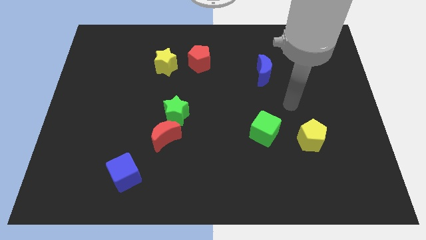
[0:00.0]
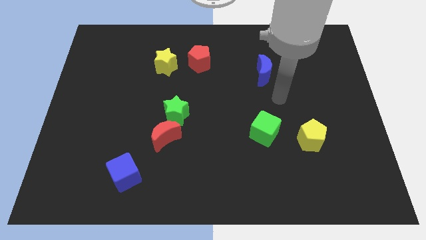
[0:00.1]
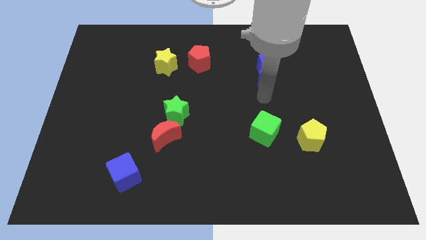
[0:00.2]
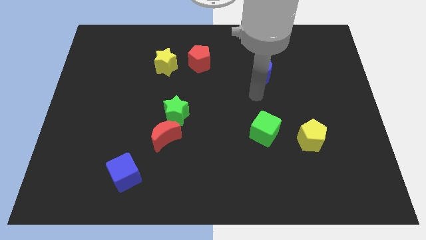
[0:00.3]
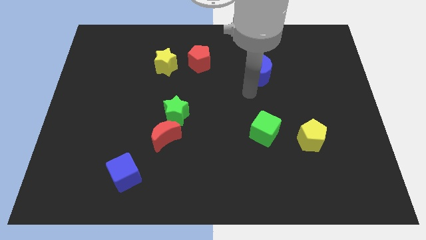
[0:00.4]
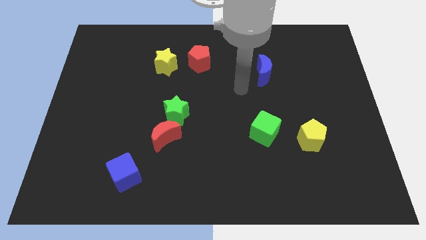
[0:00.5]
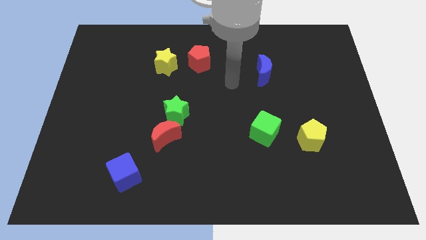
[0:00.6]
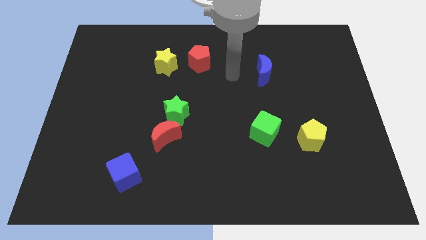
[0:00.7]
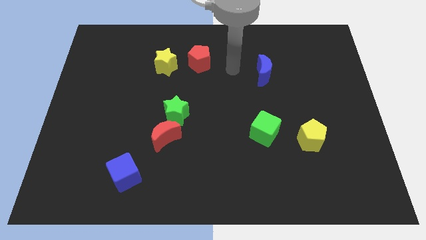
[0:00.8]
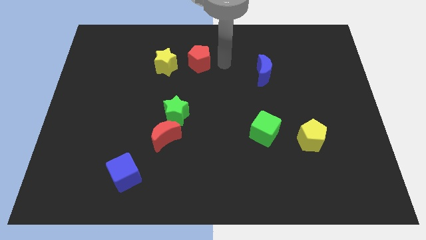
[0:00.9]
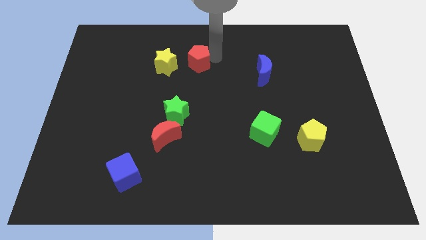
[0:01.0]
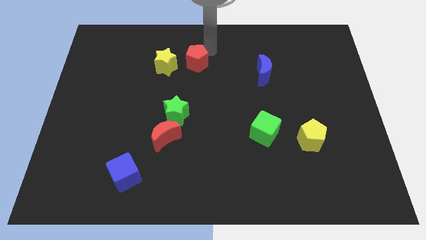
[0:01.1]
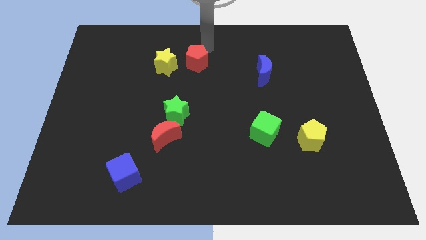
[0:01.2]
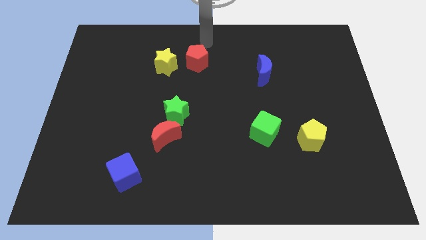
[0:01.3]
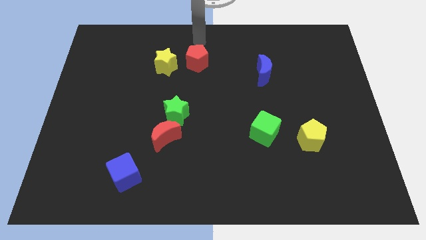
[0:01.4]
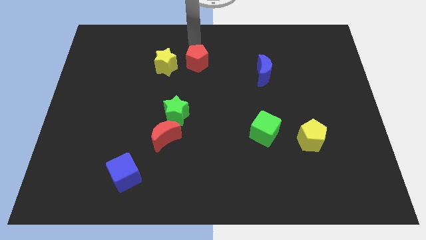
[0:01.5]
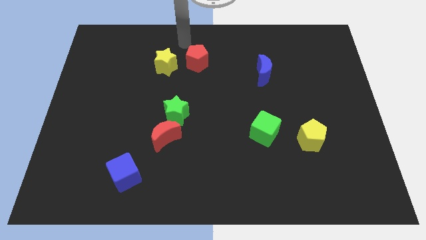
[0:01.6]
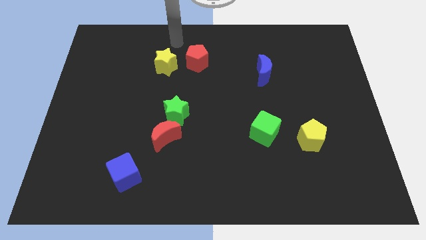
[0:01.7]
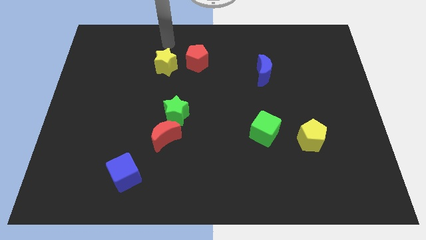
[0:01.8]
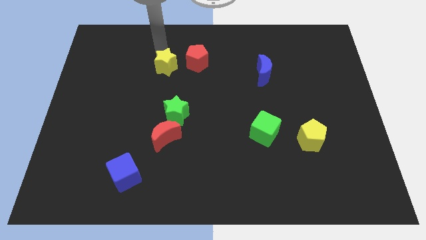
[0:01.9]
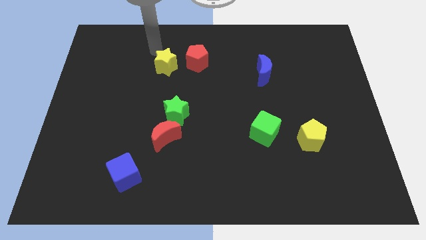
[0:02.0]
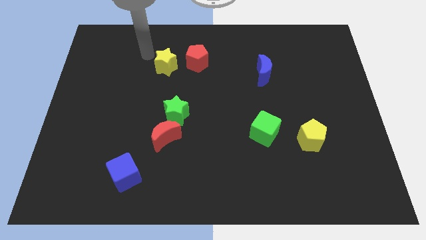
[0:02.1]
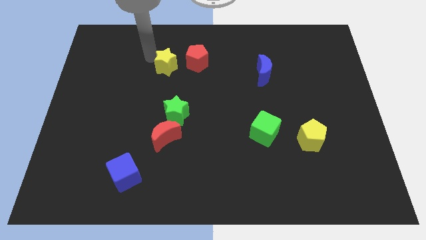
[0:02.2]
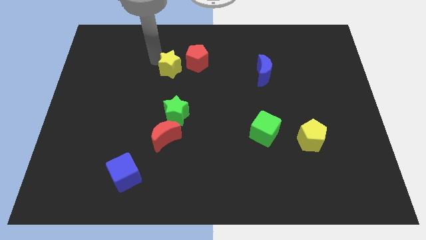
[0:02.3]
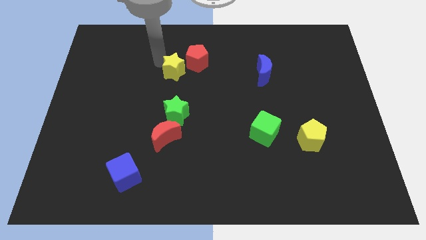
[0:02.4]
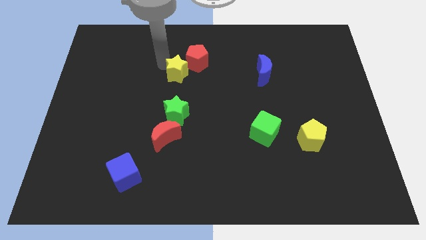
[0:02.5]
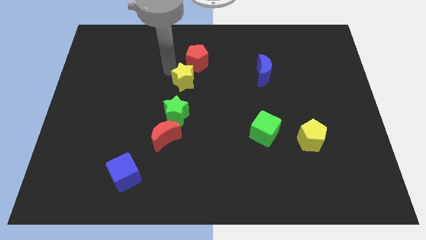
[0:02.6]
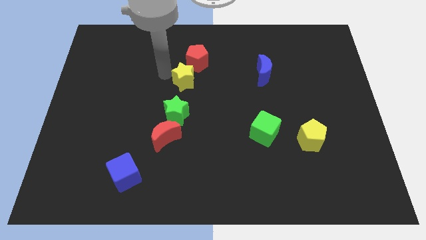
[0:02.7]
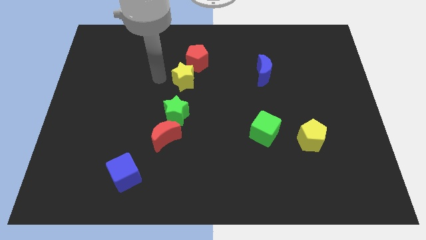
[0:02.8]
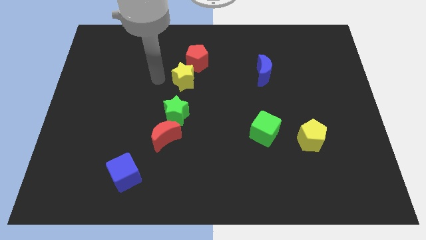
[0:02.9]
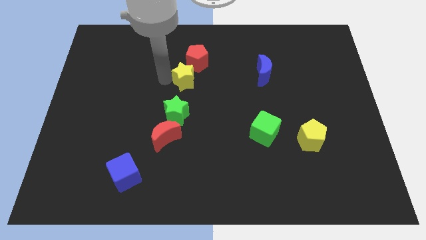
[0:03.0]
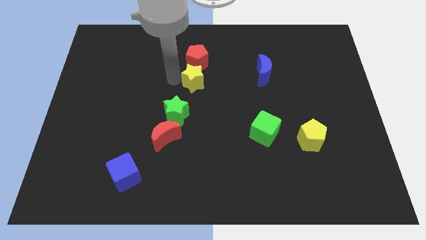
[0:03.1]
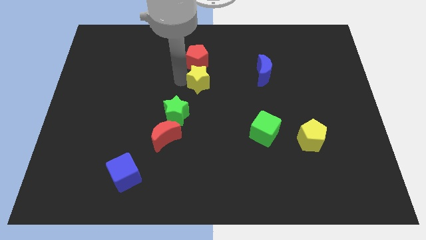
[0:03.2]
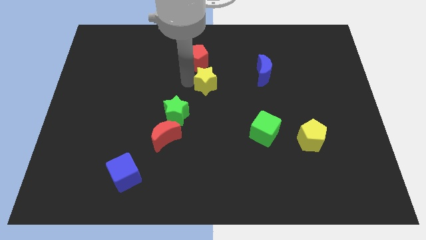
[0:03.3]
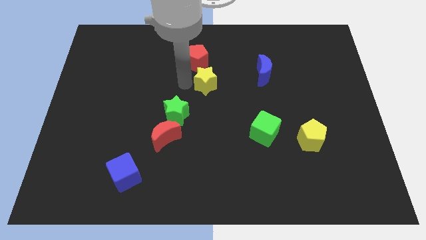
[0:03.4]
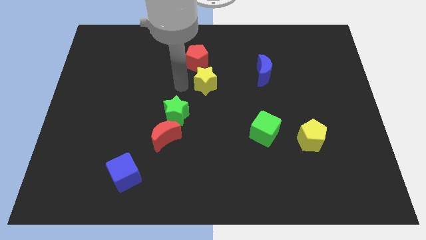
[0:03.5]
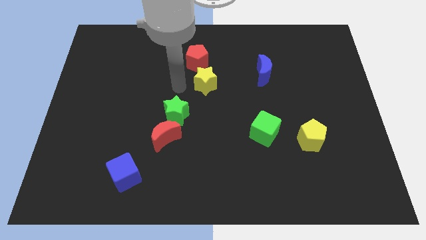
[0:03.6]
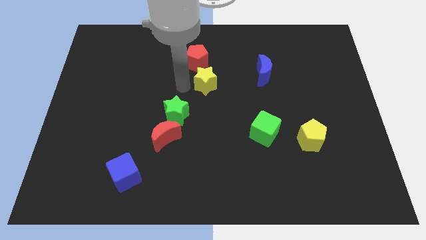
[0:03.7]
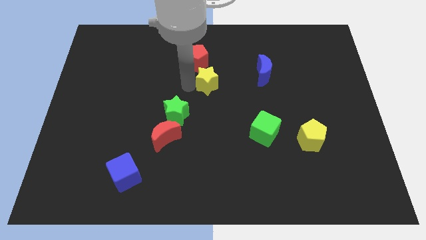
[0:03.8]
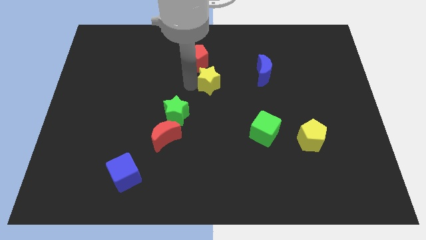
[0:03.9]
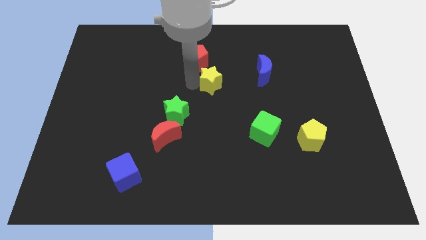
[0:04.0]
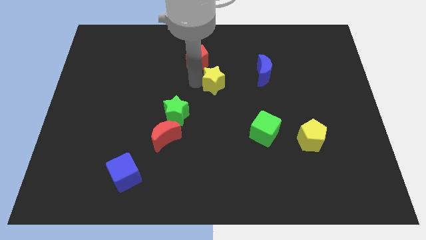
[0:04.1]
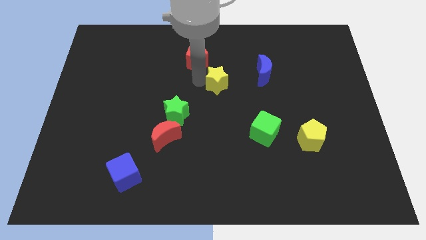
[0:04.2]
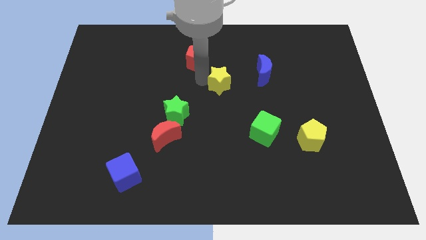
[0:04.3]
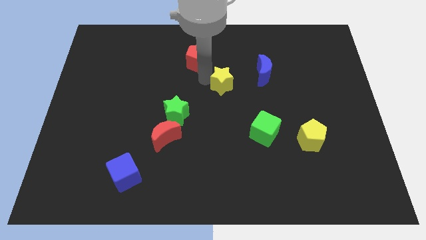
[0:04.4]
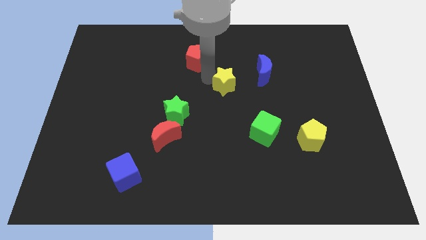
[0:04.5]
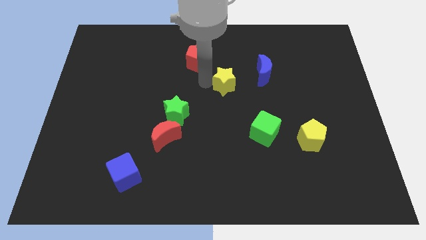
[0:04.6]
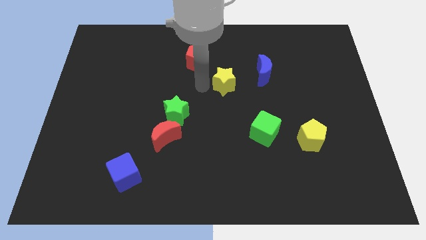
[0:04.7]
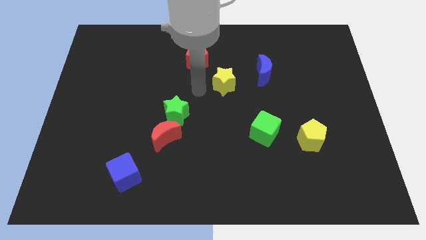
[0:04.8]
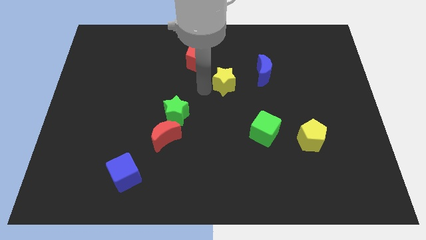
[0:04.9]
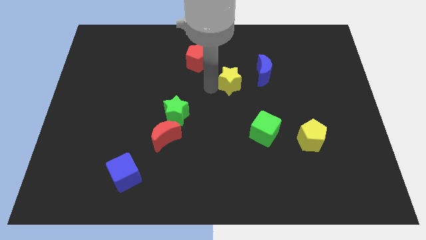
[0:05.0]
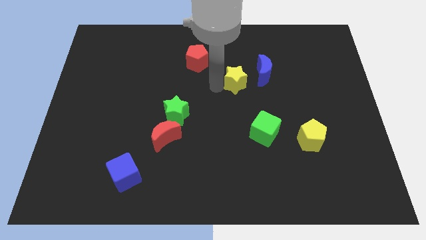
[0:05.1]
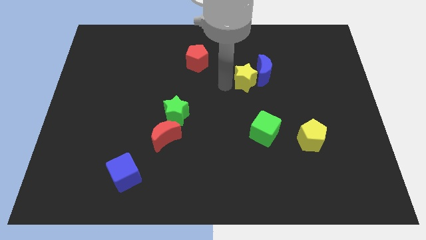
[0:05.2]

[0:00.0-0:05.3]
move the yellow star towards the blue moon

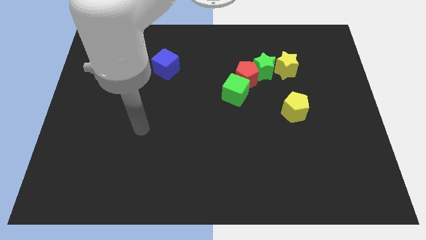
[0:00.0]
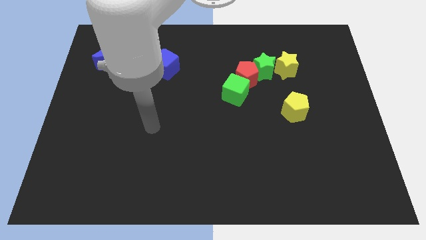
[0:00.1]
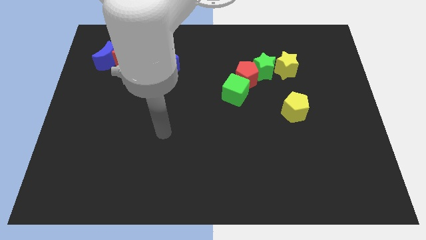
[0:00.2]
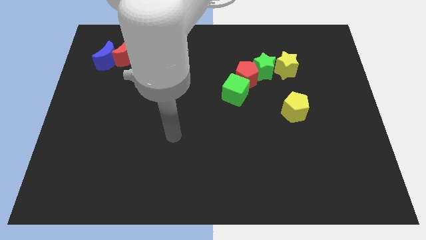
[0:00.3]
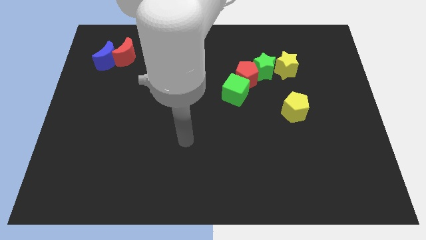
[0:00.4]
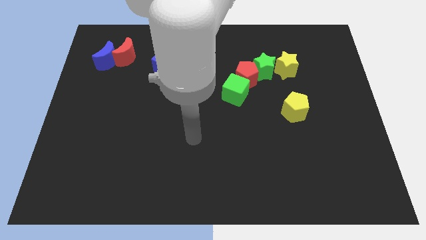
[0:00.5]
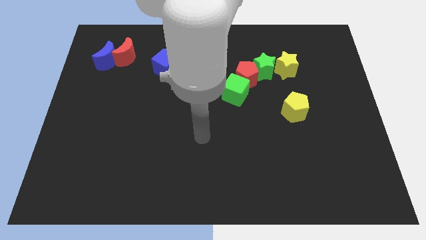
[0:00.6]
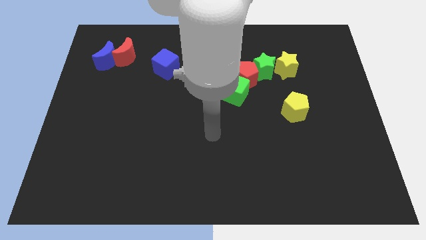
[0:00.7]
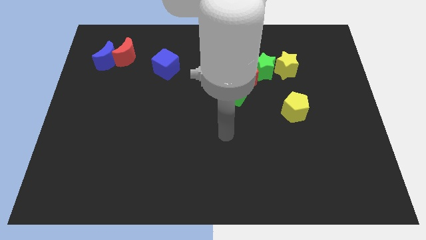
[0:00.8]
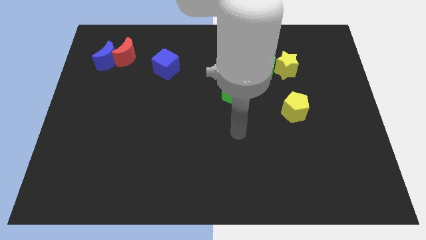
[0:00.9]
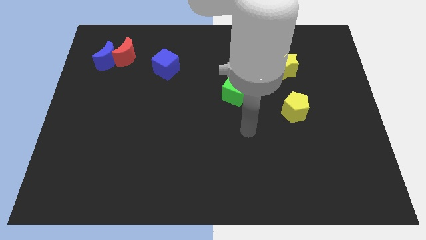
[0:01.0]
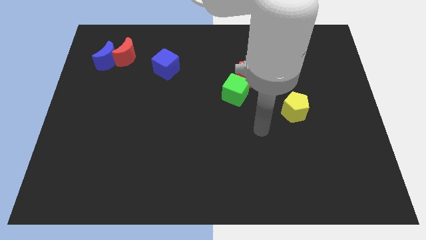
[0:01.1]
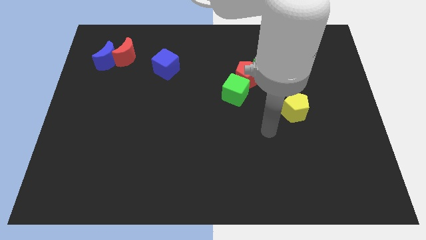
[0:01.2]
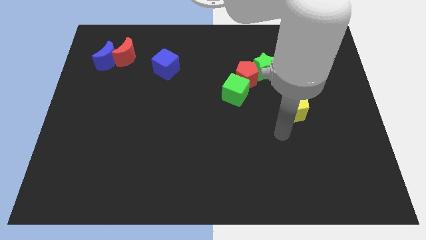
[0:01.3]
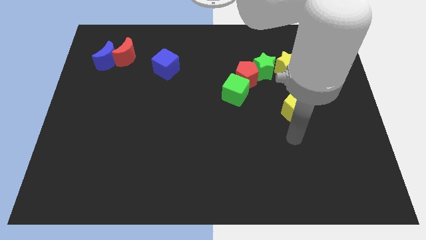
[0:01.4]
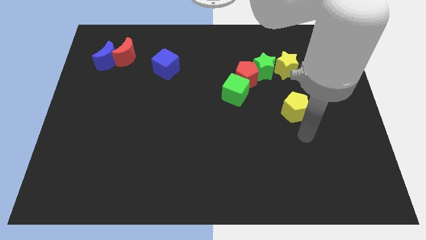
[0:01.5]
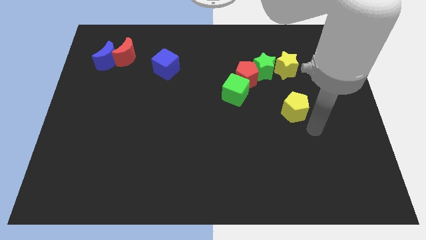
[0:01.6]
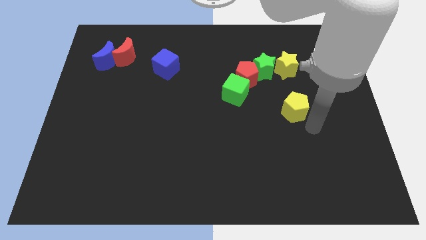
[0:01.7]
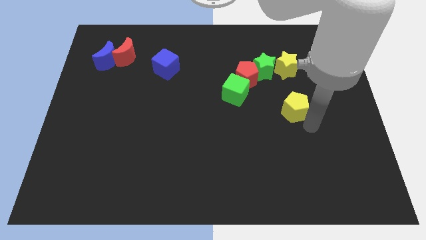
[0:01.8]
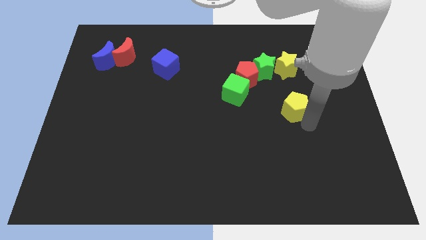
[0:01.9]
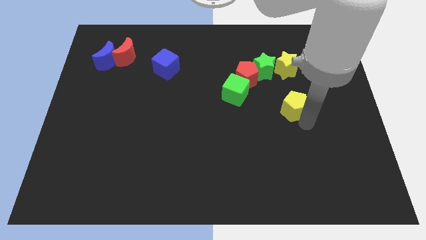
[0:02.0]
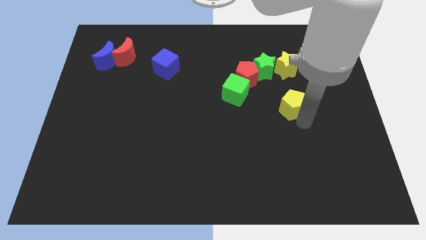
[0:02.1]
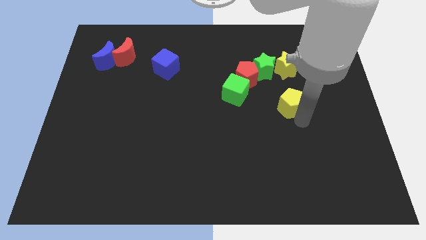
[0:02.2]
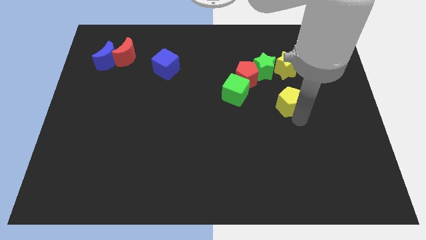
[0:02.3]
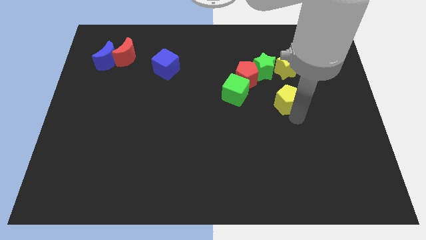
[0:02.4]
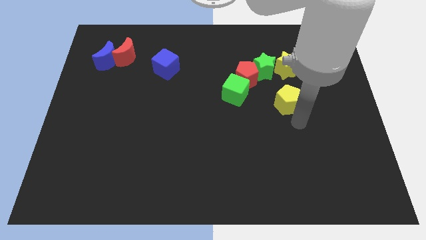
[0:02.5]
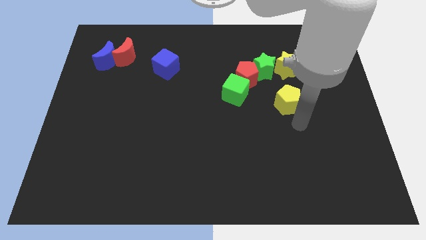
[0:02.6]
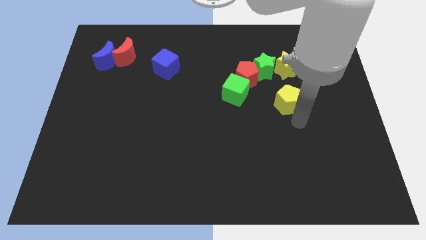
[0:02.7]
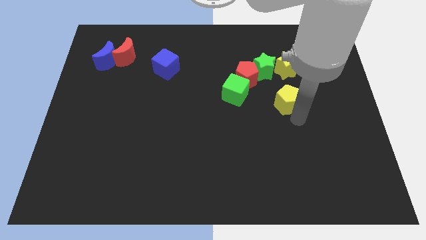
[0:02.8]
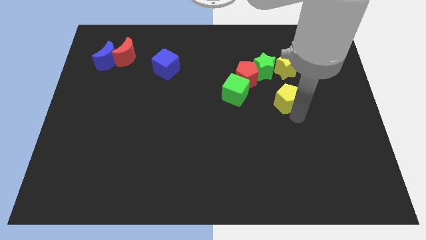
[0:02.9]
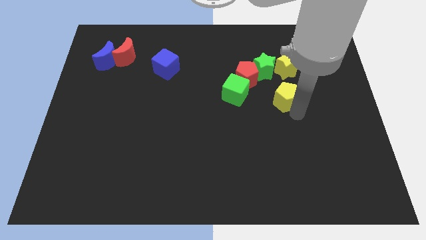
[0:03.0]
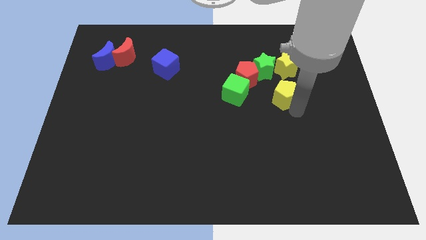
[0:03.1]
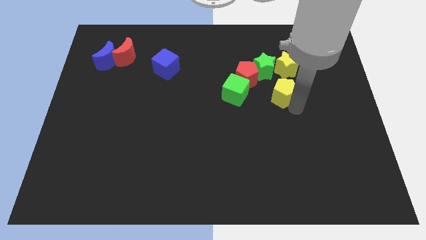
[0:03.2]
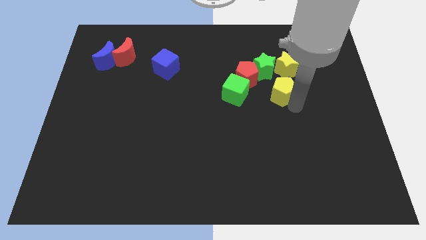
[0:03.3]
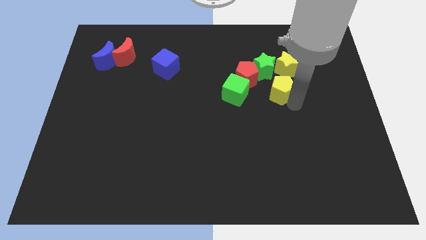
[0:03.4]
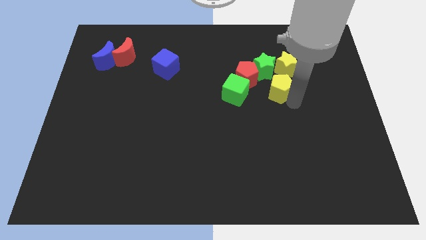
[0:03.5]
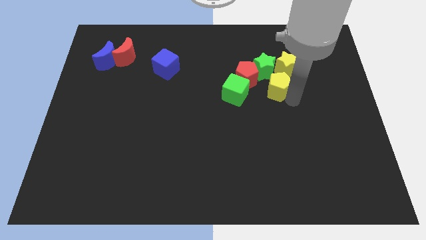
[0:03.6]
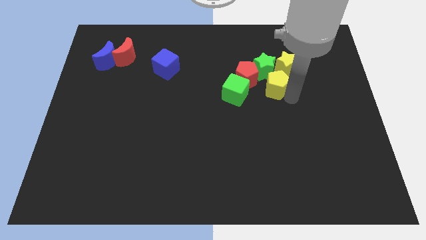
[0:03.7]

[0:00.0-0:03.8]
push the yellow pentagon to the green star
